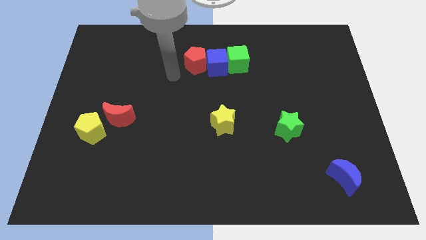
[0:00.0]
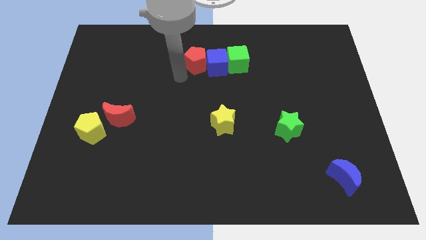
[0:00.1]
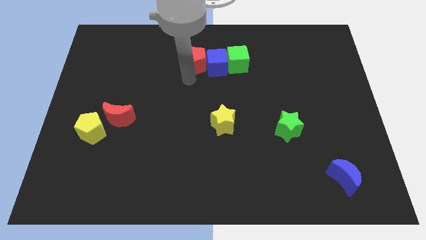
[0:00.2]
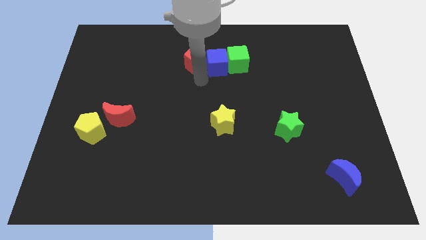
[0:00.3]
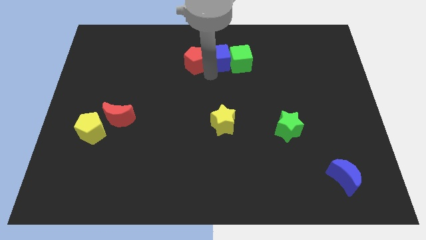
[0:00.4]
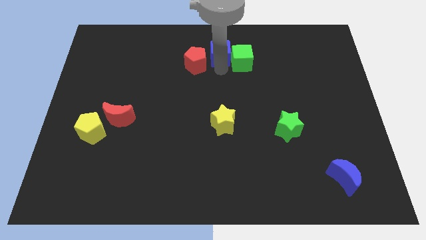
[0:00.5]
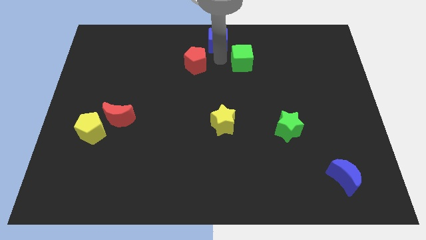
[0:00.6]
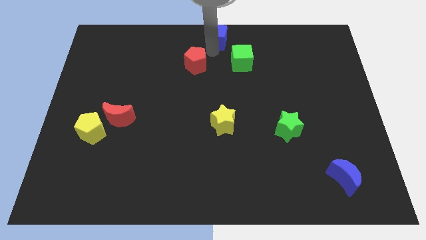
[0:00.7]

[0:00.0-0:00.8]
separate the red pentagon from the blue cube

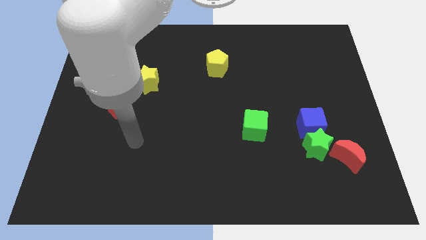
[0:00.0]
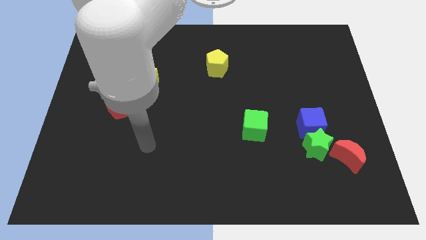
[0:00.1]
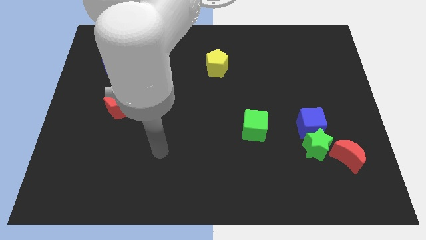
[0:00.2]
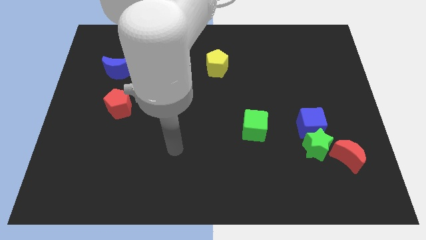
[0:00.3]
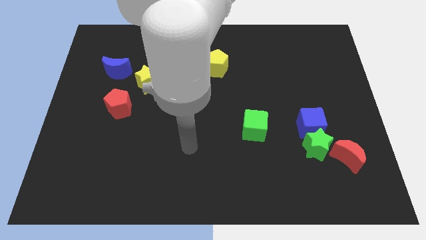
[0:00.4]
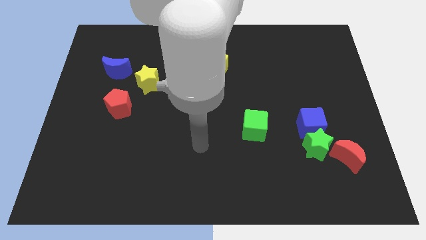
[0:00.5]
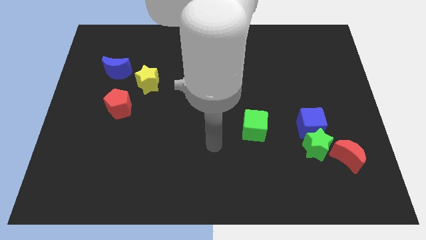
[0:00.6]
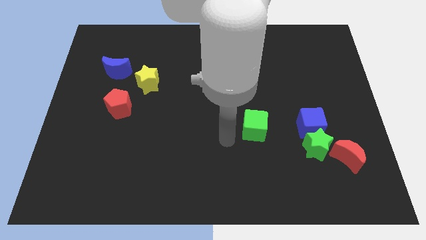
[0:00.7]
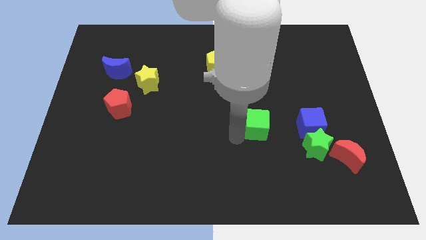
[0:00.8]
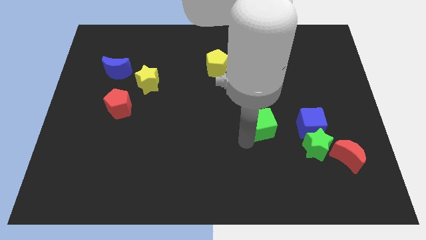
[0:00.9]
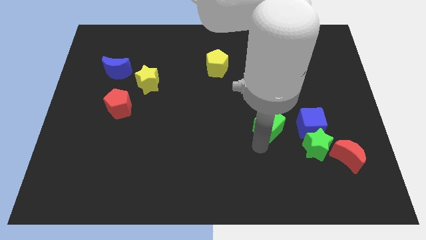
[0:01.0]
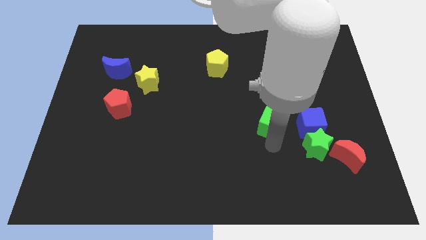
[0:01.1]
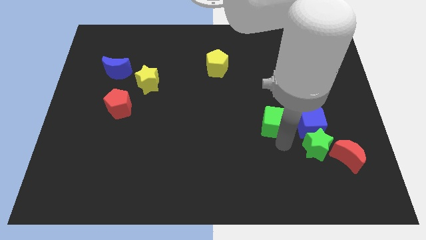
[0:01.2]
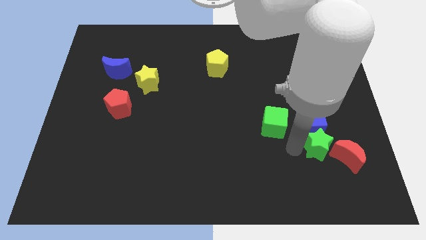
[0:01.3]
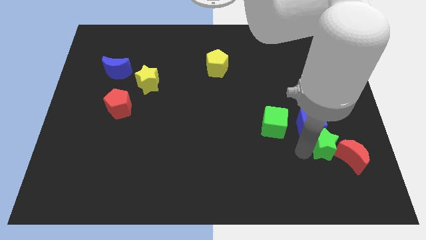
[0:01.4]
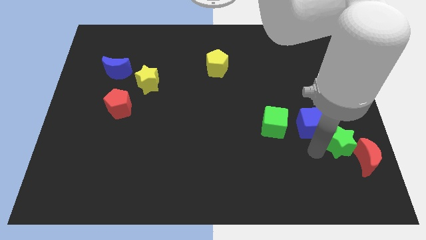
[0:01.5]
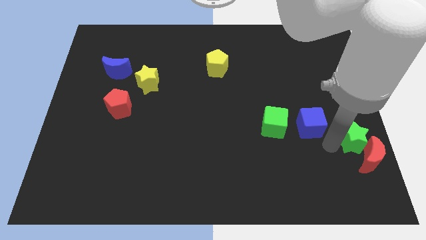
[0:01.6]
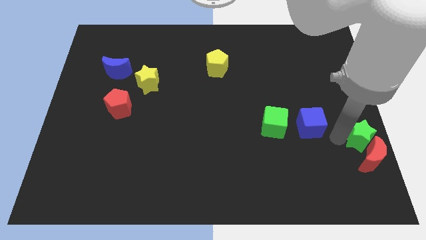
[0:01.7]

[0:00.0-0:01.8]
move the blue cube away from the green star

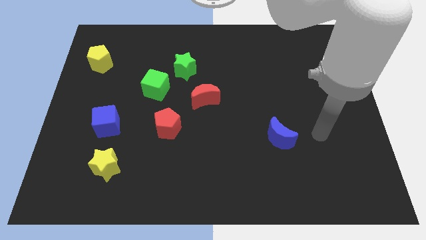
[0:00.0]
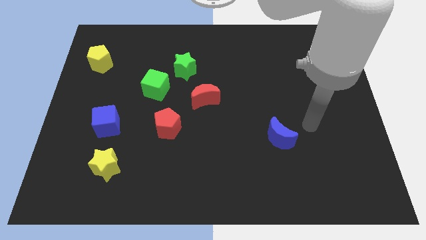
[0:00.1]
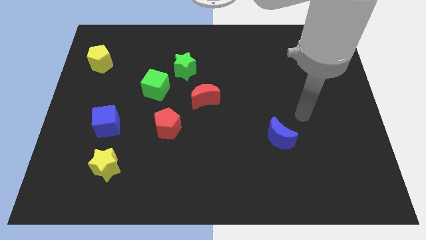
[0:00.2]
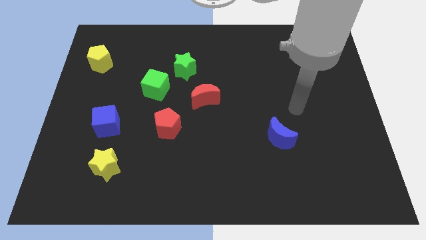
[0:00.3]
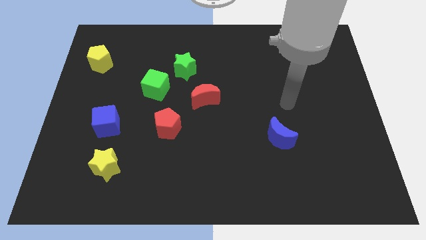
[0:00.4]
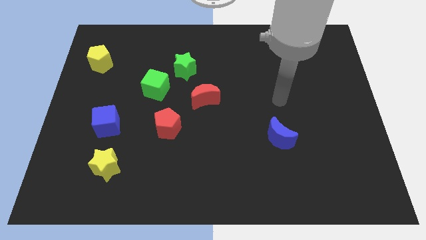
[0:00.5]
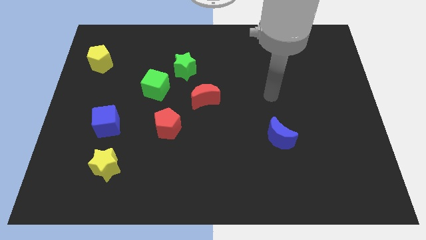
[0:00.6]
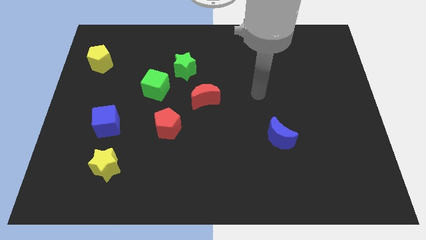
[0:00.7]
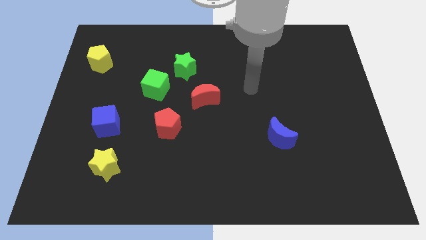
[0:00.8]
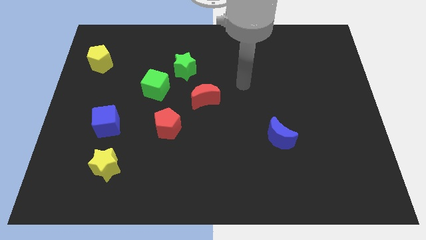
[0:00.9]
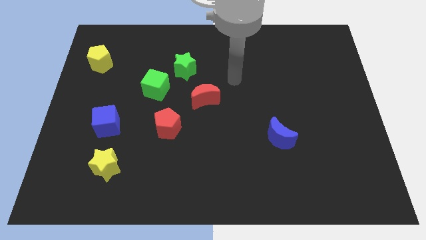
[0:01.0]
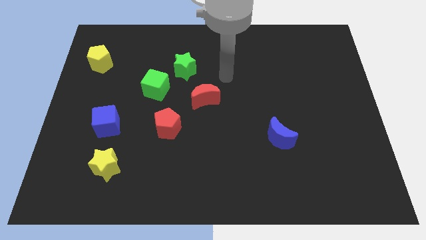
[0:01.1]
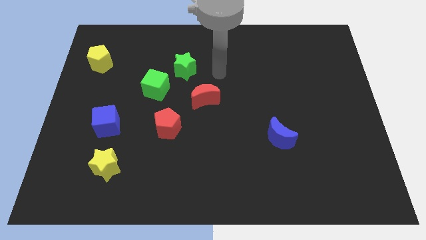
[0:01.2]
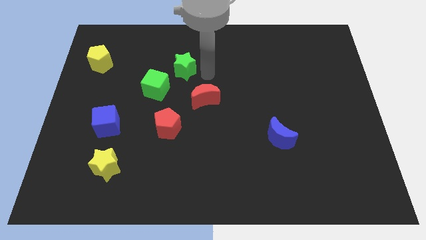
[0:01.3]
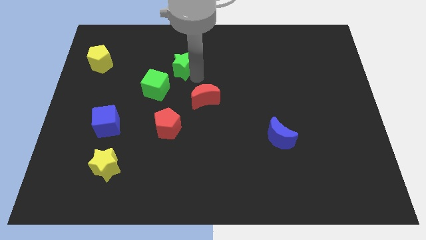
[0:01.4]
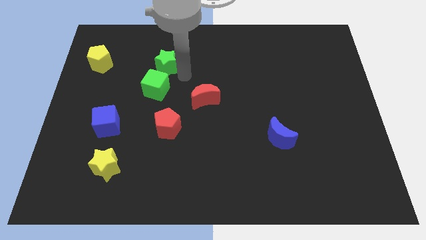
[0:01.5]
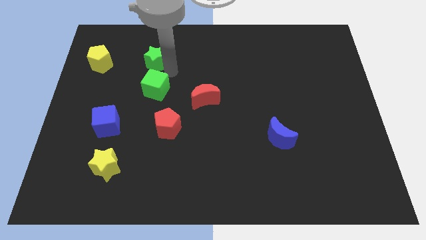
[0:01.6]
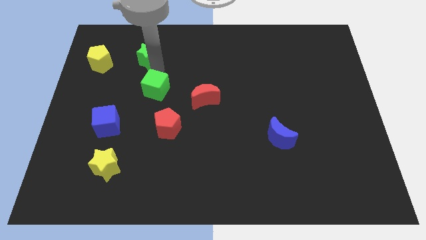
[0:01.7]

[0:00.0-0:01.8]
move the green cube away from the green star

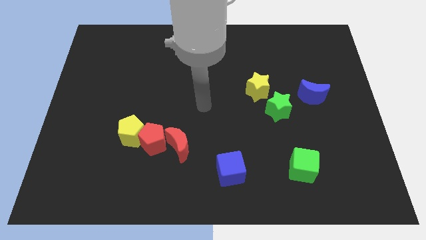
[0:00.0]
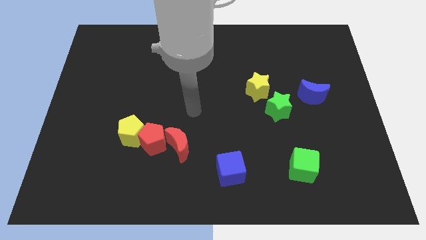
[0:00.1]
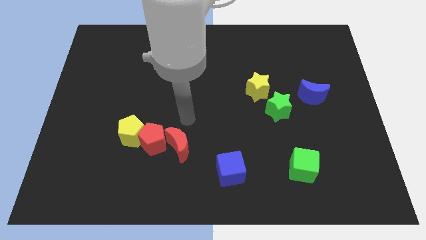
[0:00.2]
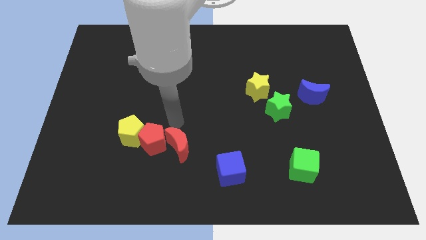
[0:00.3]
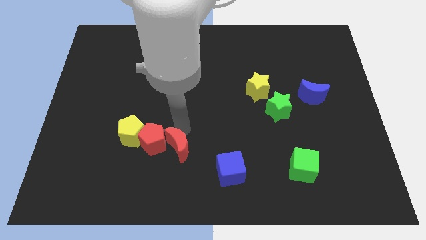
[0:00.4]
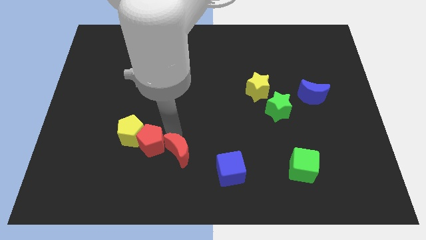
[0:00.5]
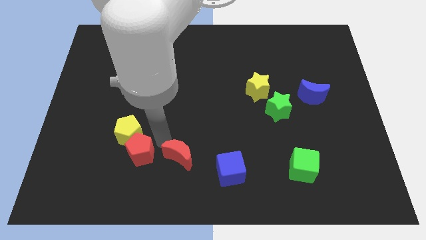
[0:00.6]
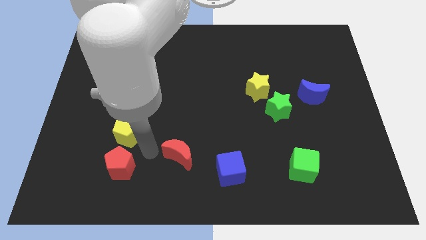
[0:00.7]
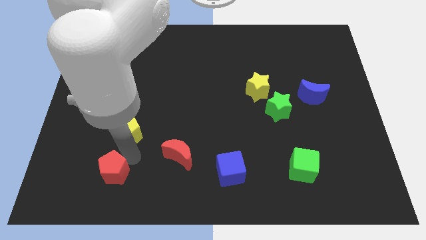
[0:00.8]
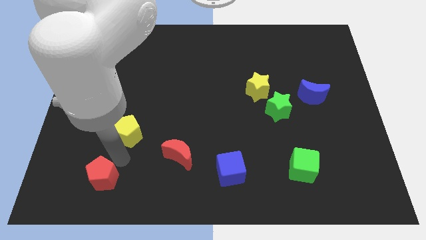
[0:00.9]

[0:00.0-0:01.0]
move the yellow pentagon away from the red pentagon

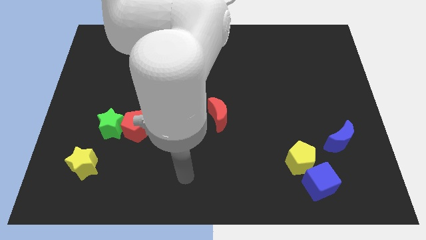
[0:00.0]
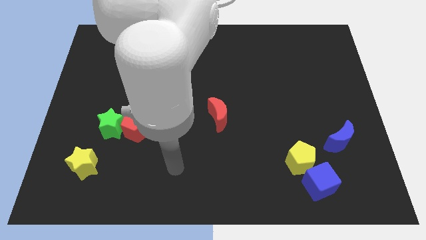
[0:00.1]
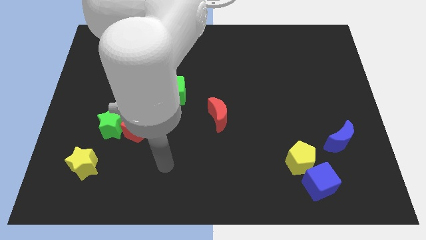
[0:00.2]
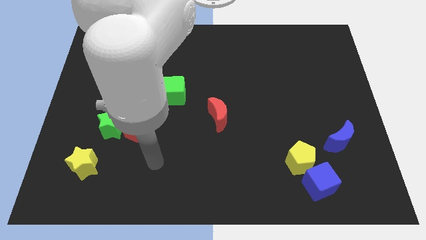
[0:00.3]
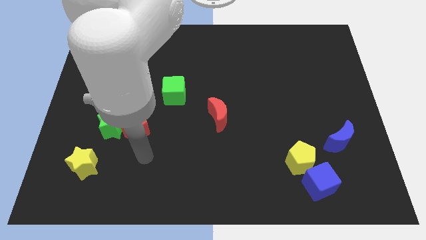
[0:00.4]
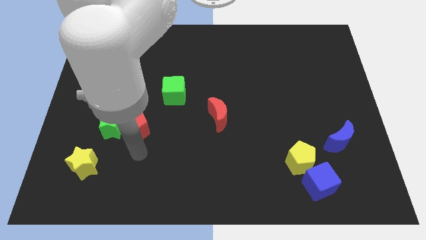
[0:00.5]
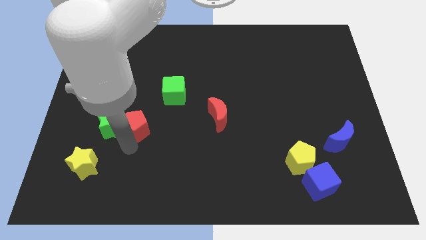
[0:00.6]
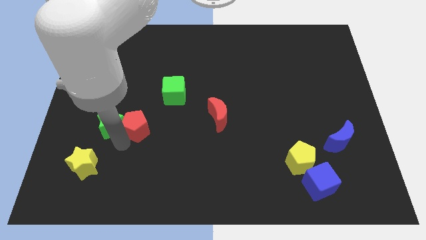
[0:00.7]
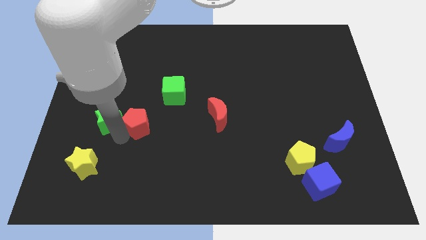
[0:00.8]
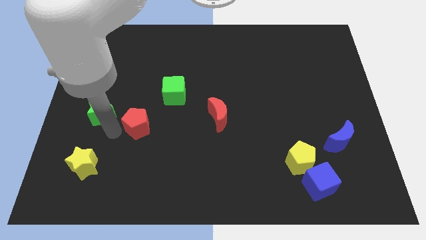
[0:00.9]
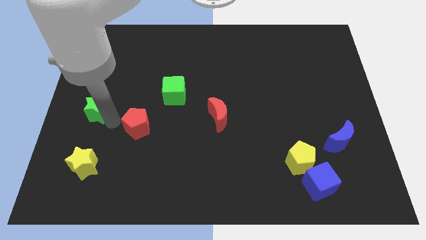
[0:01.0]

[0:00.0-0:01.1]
move the red pentagon away from the green star

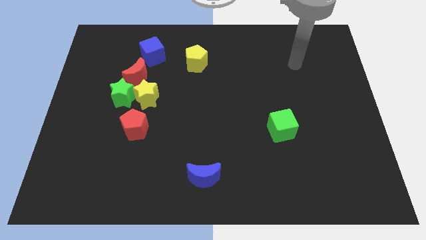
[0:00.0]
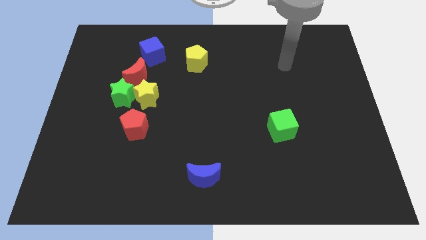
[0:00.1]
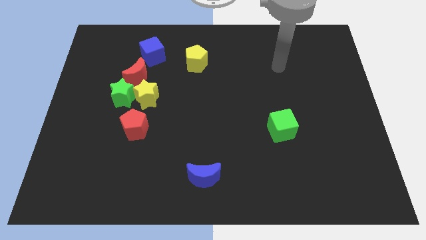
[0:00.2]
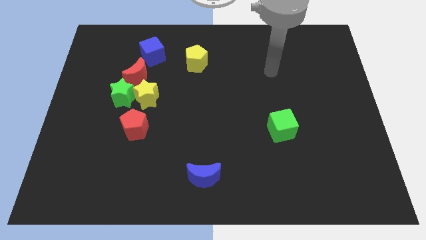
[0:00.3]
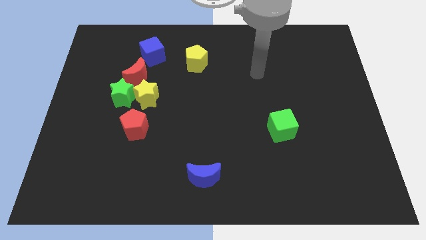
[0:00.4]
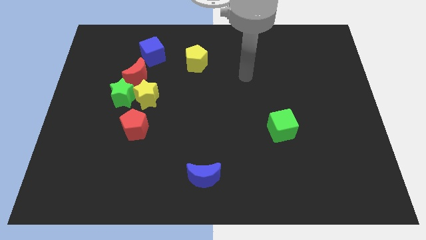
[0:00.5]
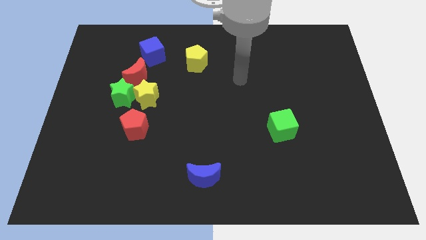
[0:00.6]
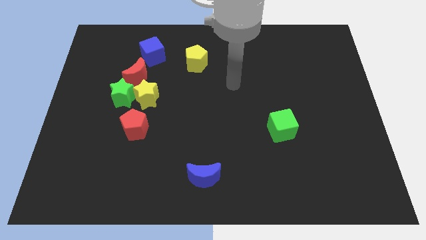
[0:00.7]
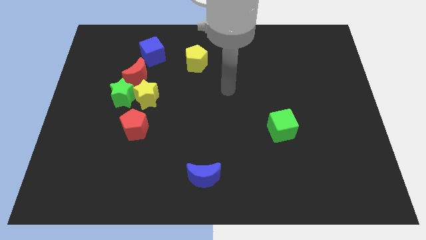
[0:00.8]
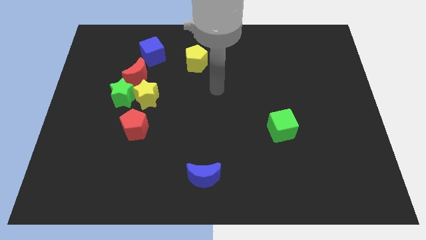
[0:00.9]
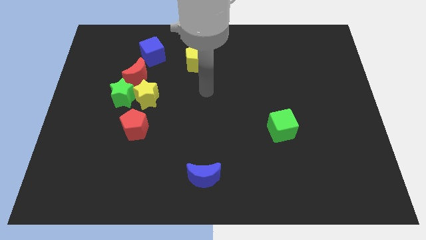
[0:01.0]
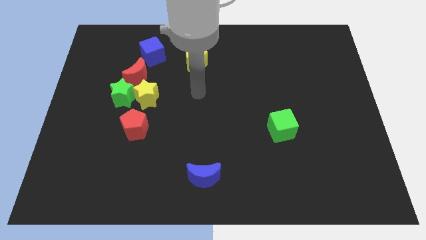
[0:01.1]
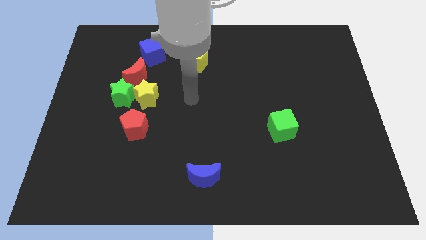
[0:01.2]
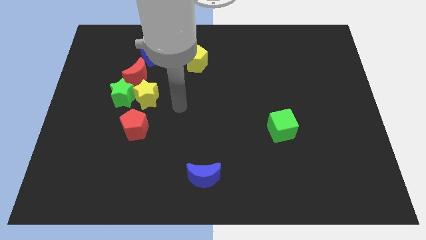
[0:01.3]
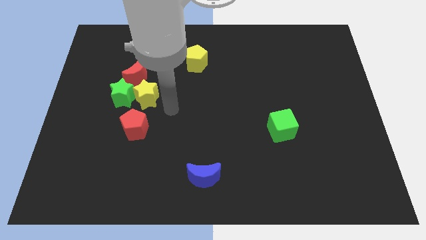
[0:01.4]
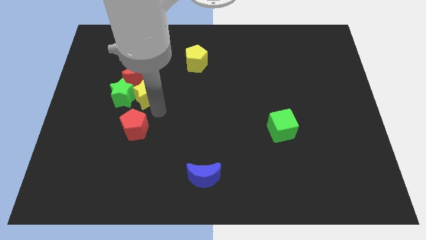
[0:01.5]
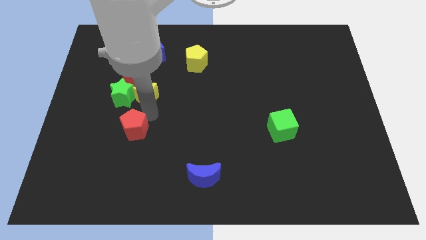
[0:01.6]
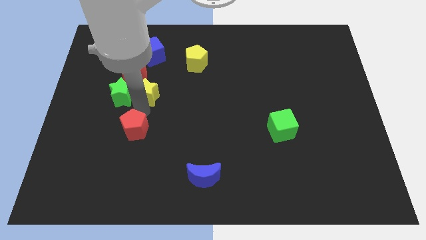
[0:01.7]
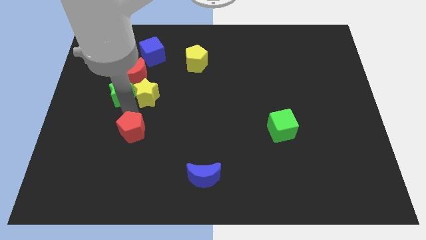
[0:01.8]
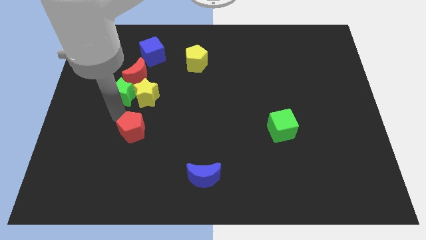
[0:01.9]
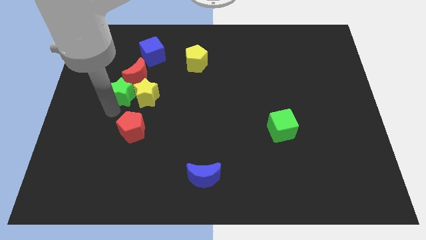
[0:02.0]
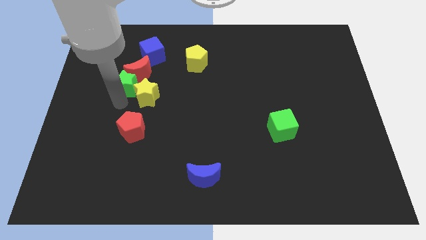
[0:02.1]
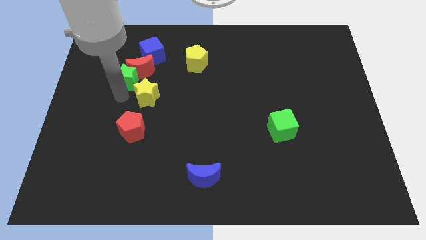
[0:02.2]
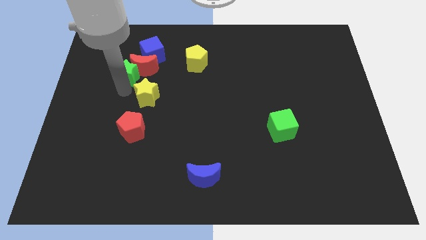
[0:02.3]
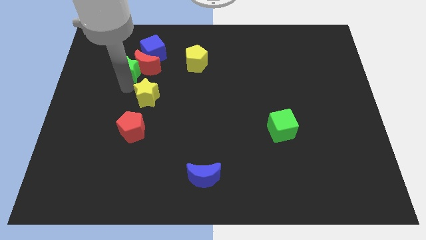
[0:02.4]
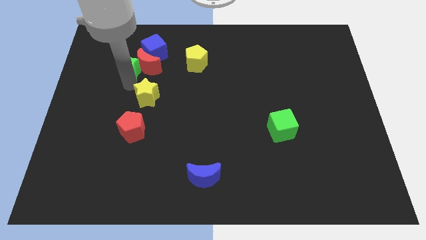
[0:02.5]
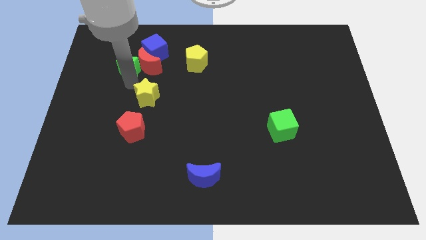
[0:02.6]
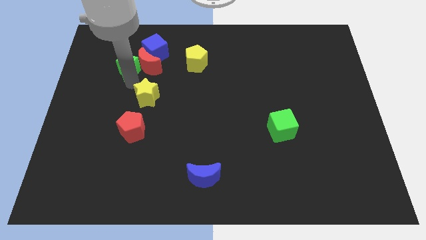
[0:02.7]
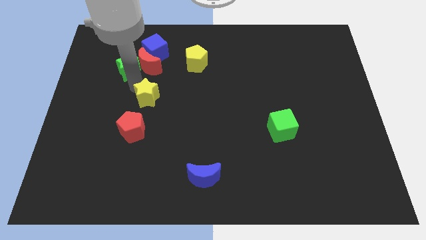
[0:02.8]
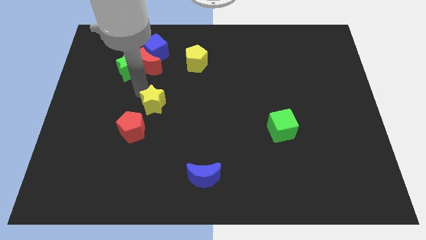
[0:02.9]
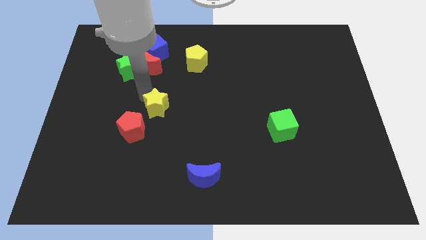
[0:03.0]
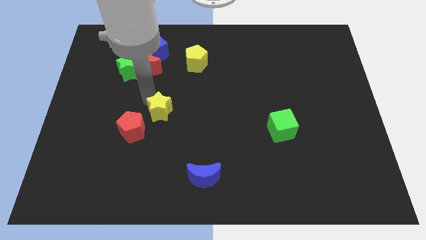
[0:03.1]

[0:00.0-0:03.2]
pull the yellow star apart from the green star, red moon, and red pentagon
